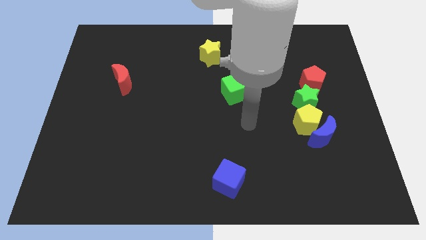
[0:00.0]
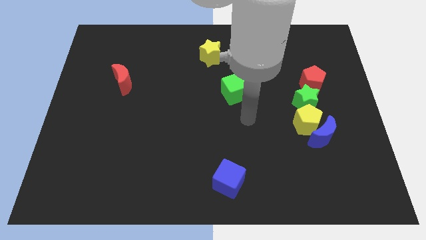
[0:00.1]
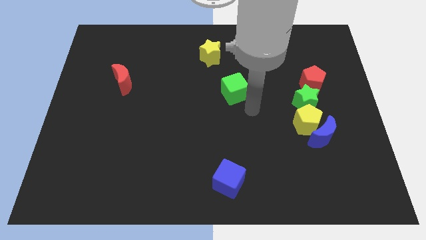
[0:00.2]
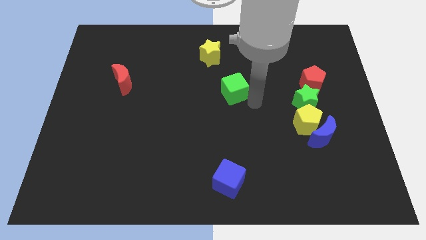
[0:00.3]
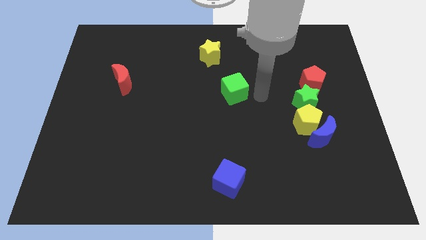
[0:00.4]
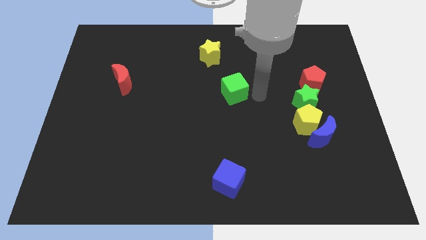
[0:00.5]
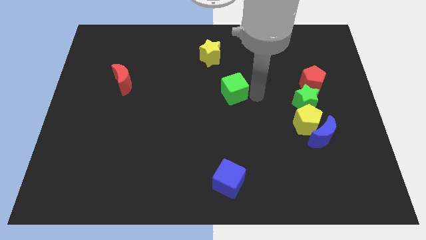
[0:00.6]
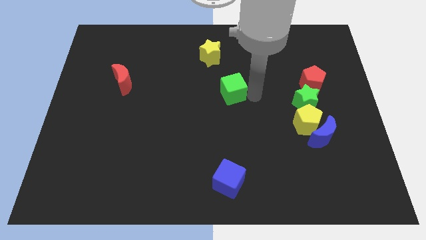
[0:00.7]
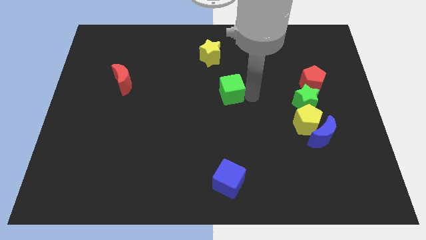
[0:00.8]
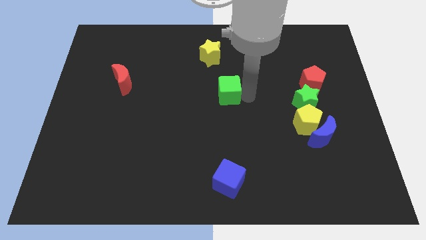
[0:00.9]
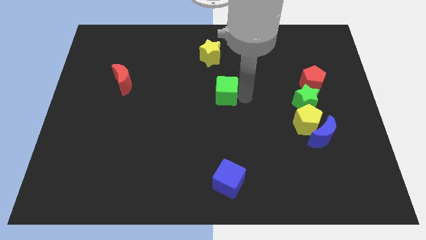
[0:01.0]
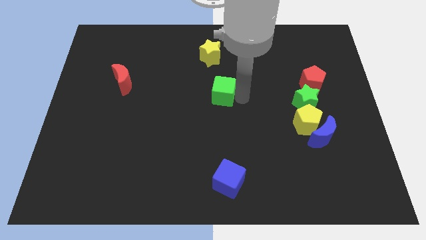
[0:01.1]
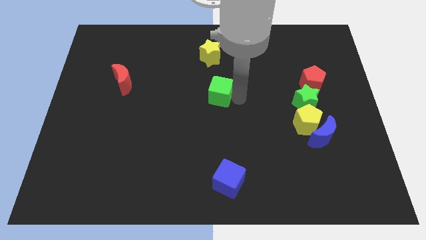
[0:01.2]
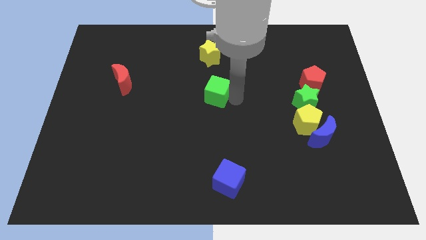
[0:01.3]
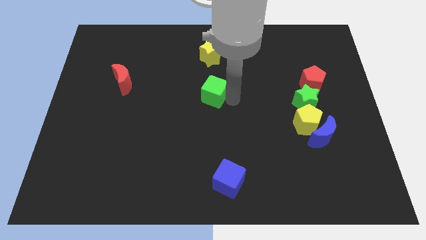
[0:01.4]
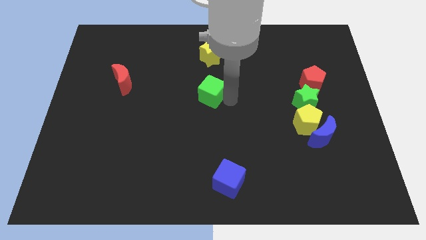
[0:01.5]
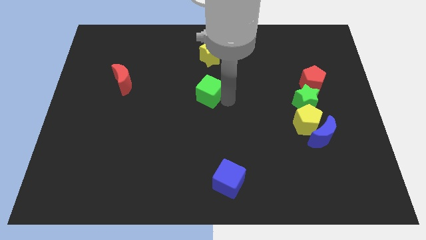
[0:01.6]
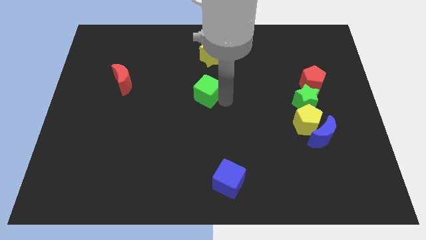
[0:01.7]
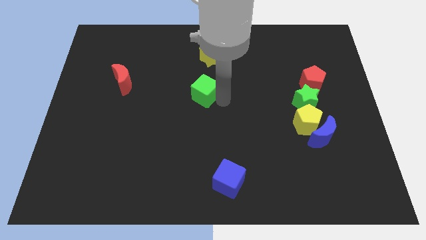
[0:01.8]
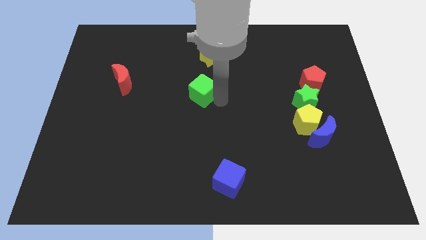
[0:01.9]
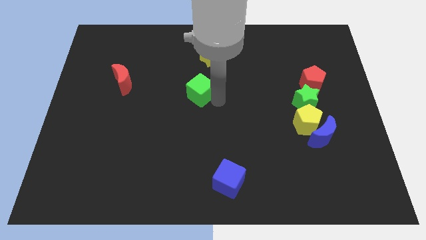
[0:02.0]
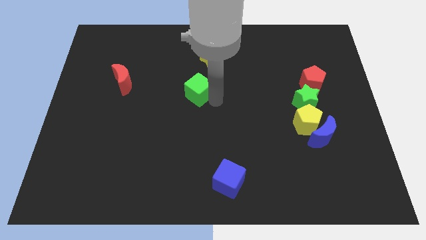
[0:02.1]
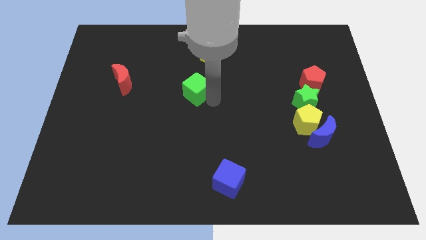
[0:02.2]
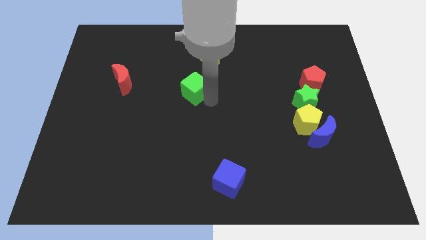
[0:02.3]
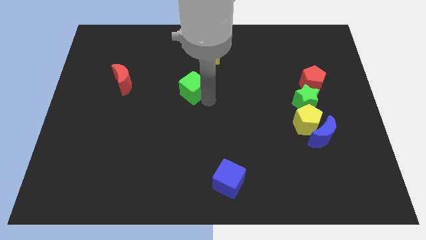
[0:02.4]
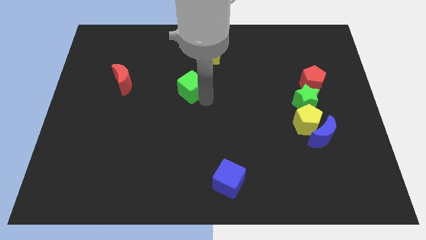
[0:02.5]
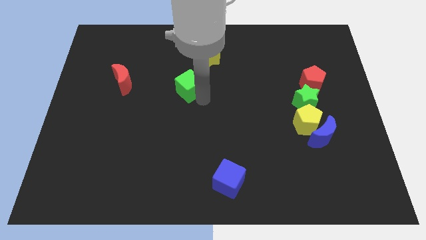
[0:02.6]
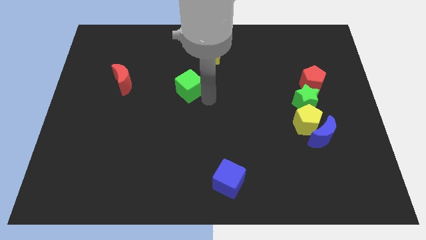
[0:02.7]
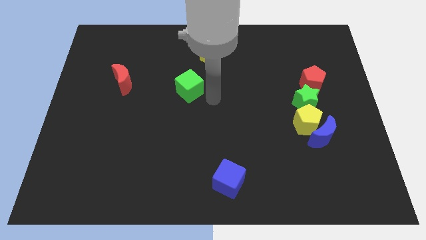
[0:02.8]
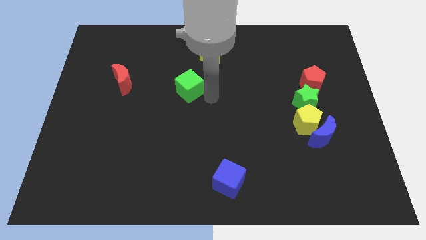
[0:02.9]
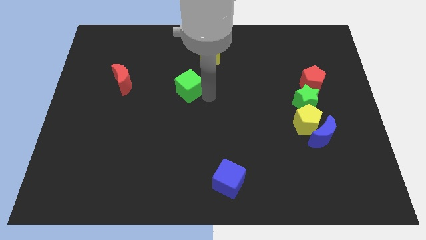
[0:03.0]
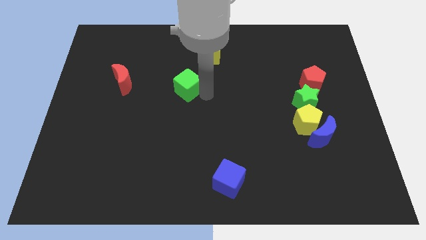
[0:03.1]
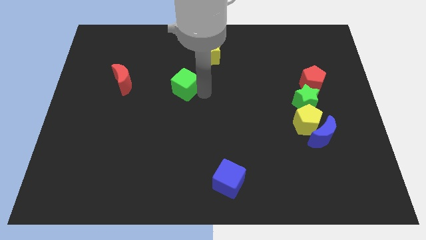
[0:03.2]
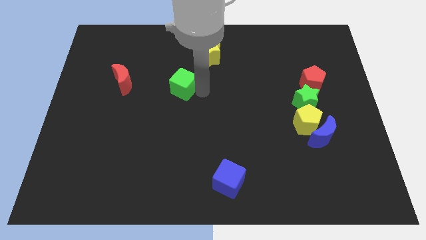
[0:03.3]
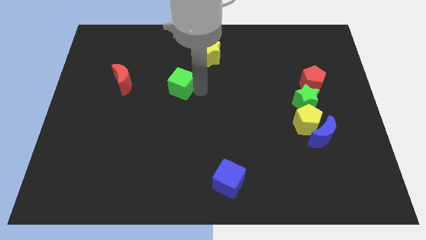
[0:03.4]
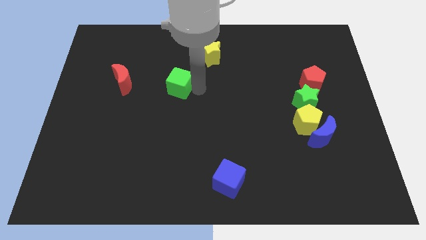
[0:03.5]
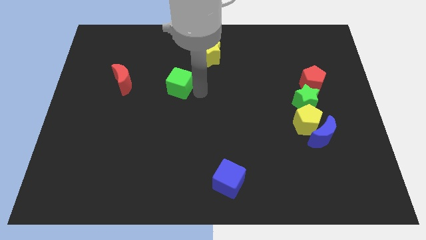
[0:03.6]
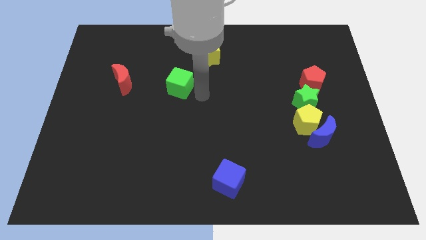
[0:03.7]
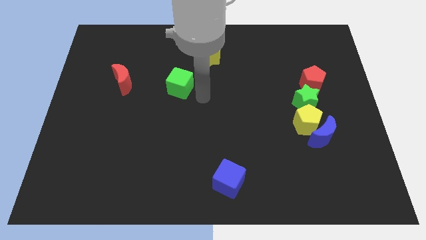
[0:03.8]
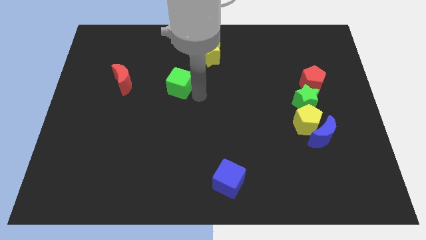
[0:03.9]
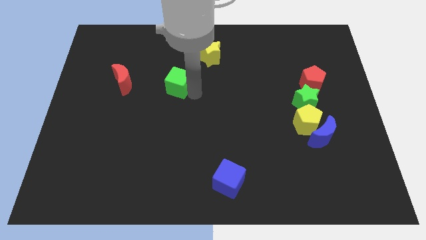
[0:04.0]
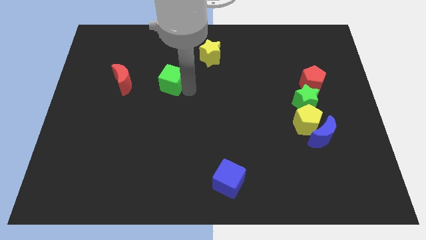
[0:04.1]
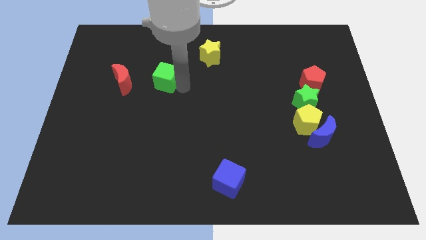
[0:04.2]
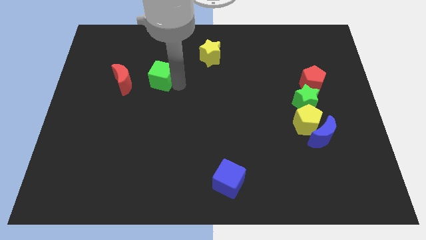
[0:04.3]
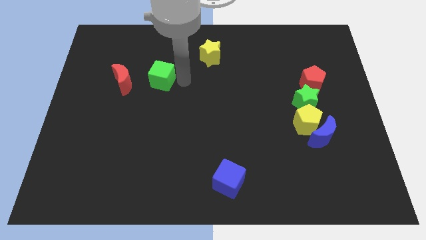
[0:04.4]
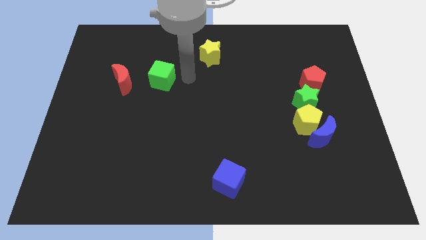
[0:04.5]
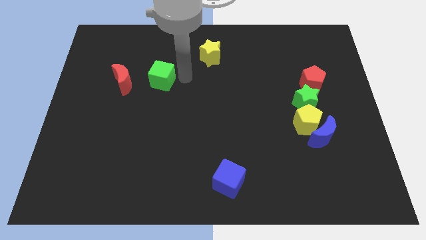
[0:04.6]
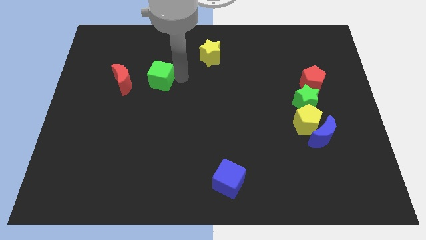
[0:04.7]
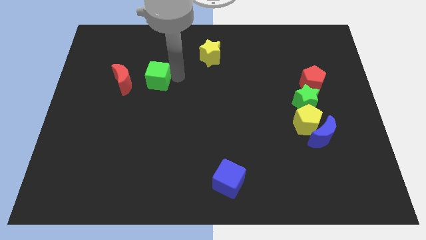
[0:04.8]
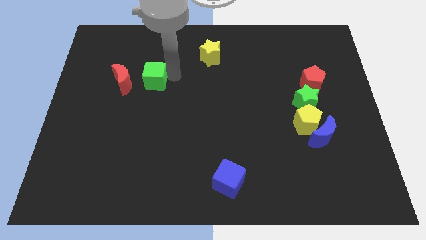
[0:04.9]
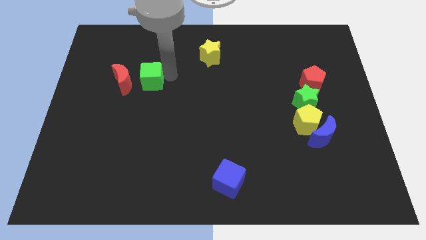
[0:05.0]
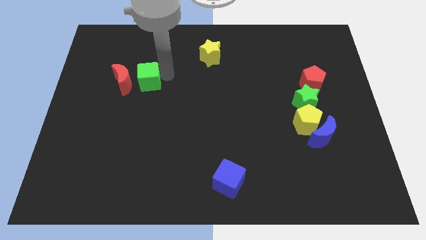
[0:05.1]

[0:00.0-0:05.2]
slide the green cube next to the red moon

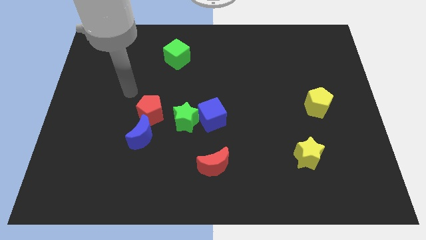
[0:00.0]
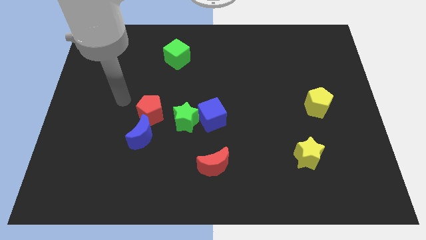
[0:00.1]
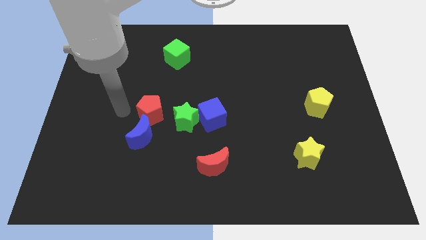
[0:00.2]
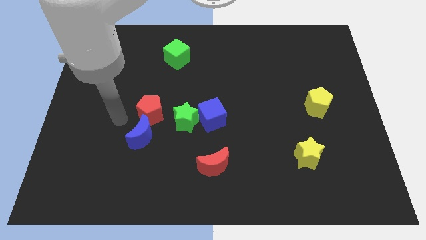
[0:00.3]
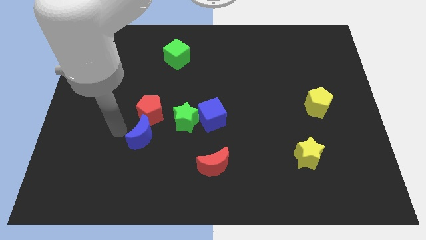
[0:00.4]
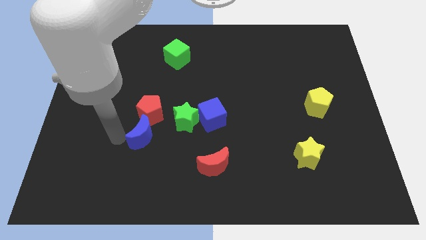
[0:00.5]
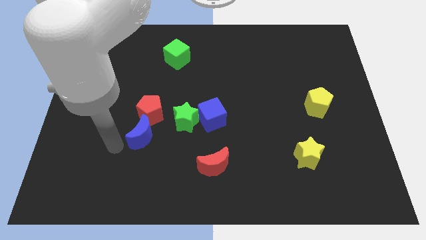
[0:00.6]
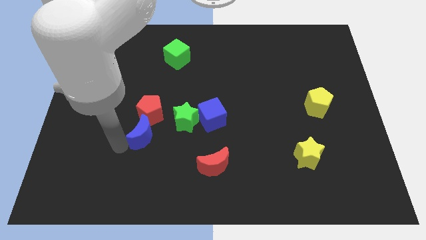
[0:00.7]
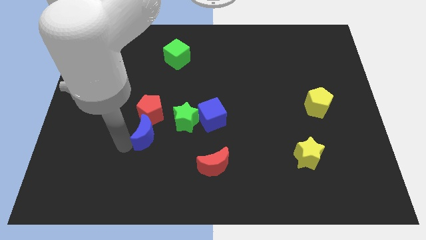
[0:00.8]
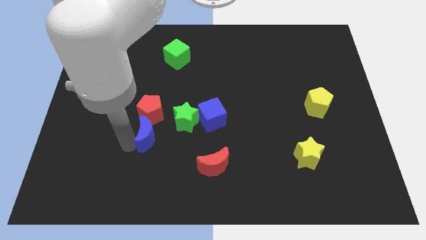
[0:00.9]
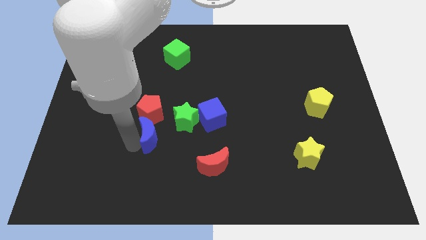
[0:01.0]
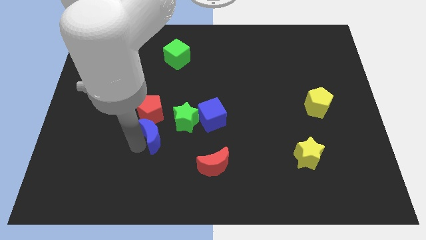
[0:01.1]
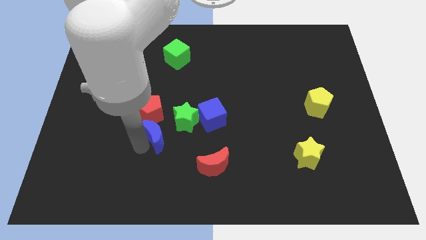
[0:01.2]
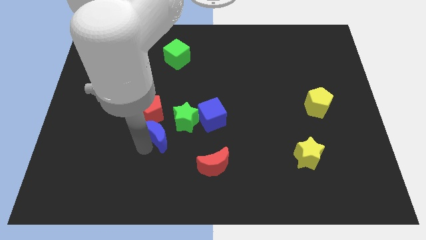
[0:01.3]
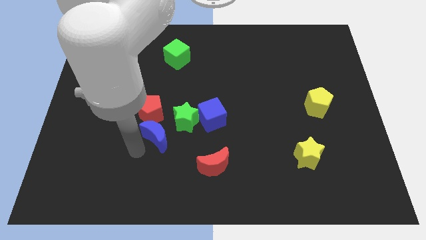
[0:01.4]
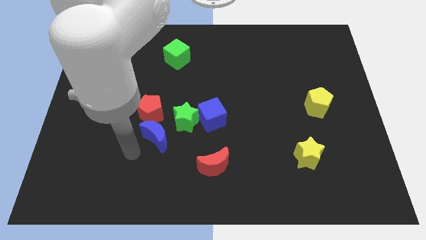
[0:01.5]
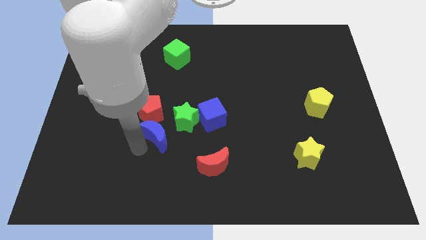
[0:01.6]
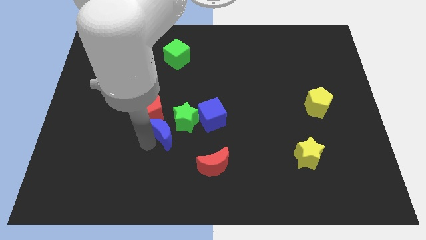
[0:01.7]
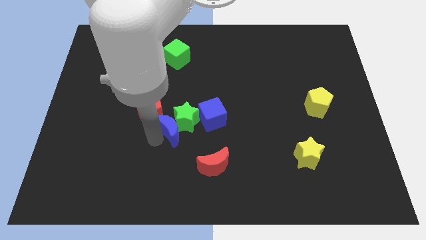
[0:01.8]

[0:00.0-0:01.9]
move the blue moon towards the green star

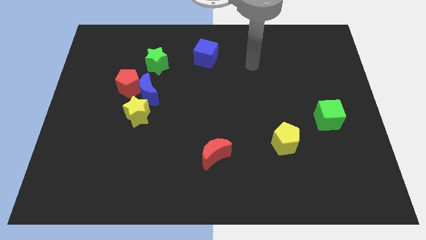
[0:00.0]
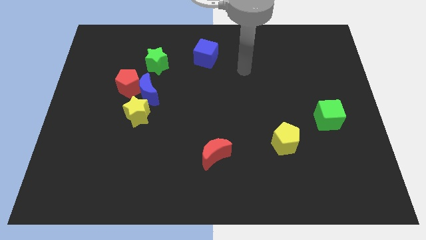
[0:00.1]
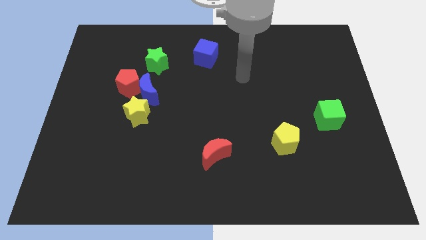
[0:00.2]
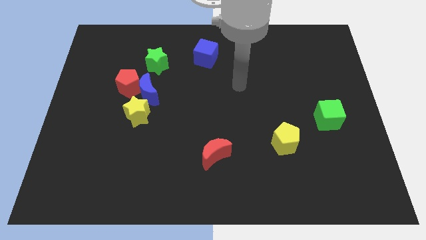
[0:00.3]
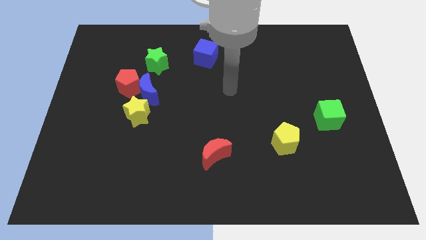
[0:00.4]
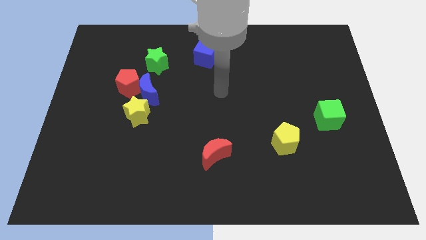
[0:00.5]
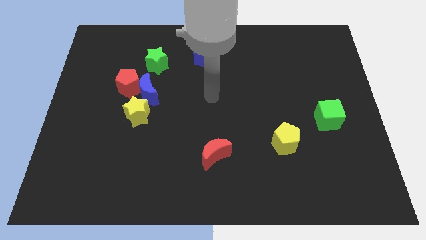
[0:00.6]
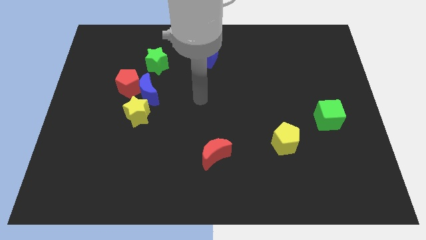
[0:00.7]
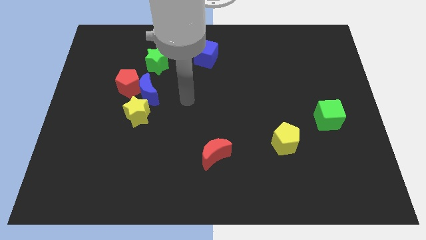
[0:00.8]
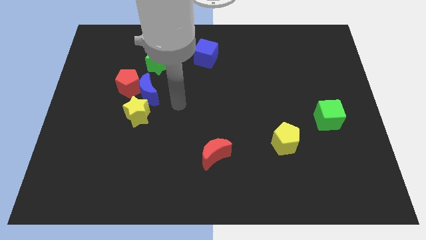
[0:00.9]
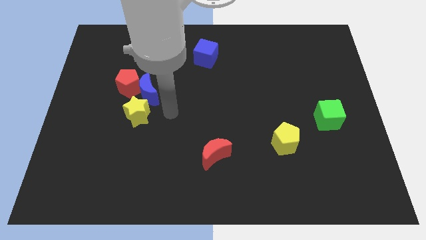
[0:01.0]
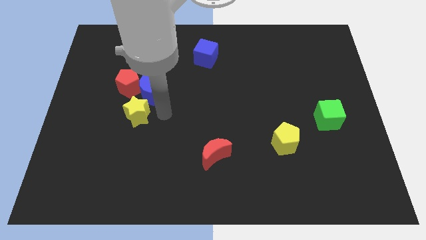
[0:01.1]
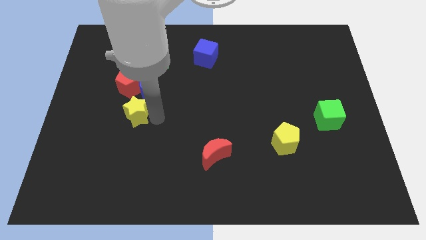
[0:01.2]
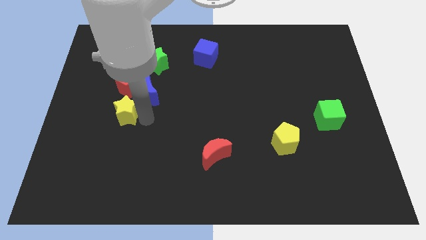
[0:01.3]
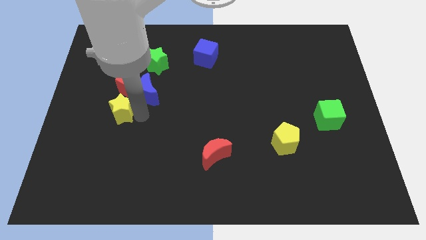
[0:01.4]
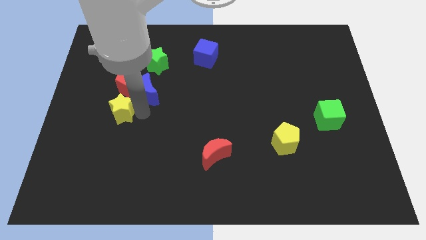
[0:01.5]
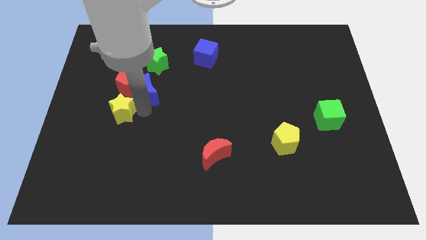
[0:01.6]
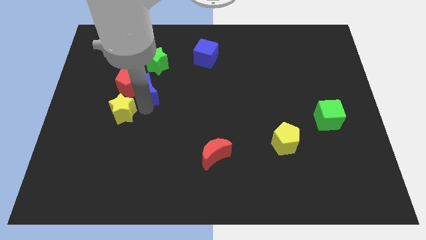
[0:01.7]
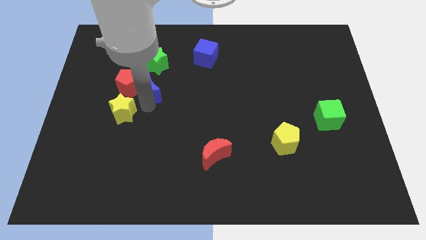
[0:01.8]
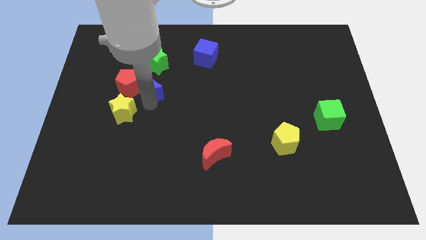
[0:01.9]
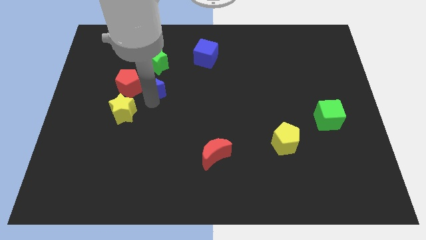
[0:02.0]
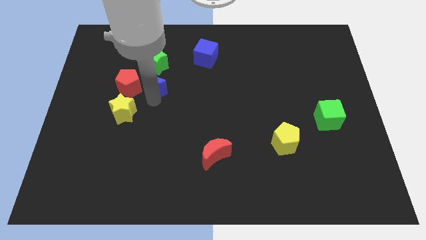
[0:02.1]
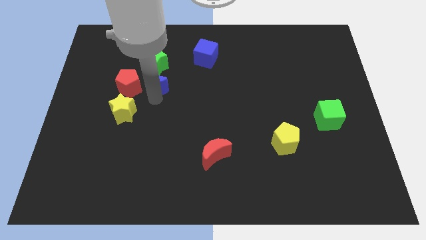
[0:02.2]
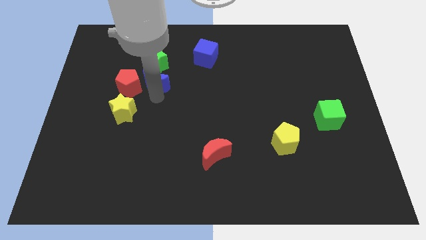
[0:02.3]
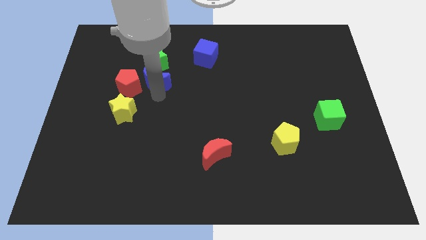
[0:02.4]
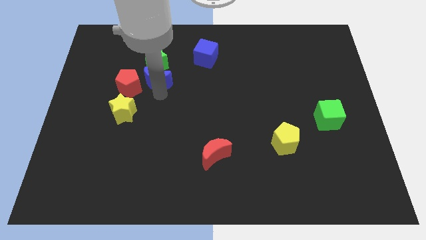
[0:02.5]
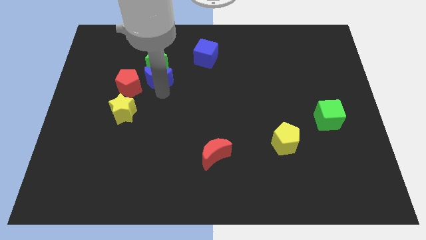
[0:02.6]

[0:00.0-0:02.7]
put the blue moon close to the green star
